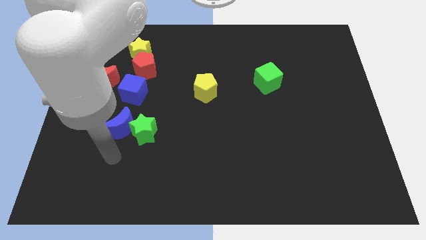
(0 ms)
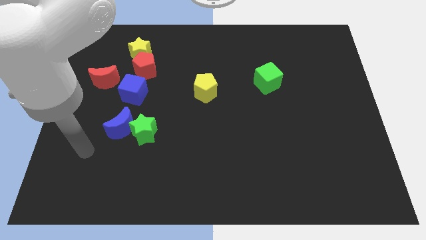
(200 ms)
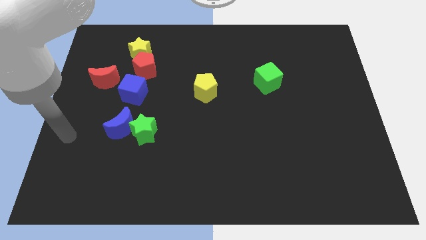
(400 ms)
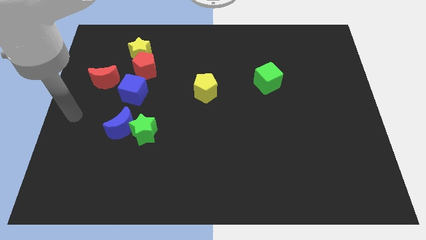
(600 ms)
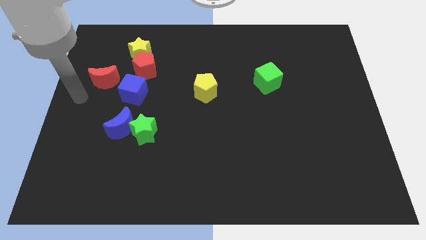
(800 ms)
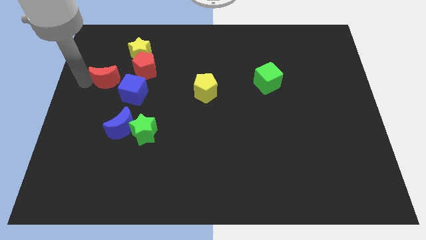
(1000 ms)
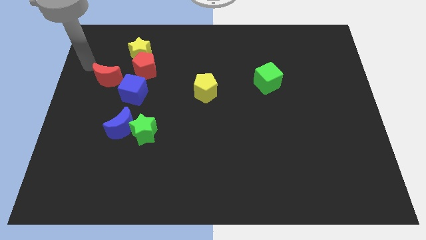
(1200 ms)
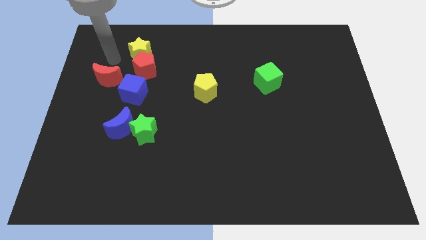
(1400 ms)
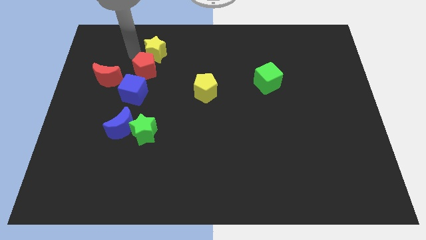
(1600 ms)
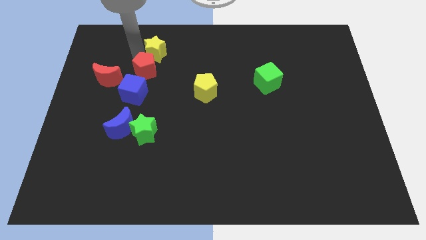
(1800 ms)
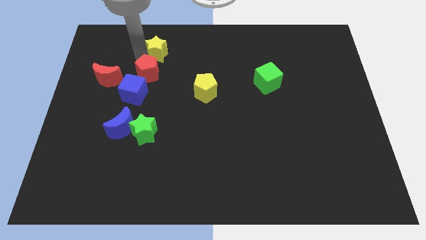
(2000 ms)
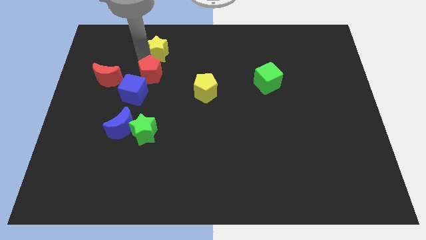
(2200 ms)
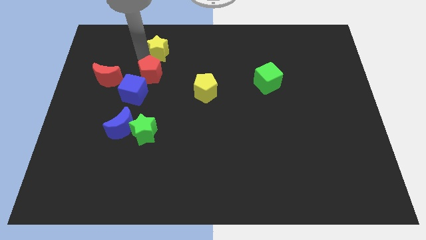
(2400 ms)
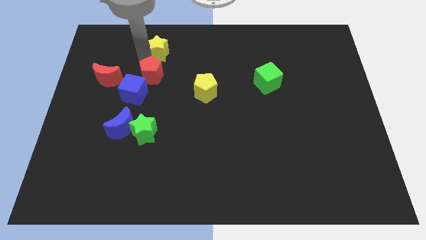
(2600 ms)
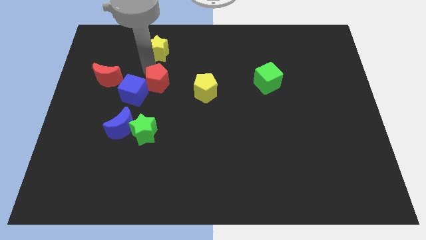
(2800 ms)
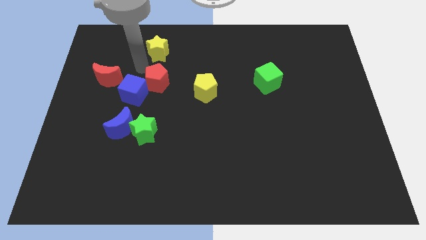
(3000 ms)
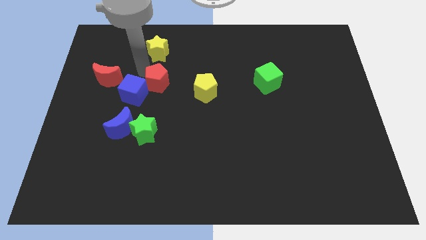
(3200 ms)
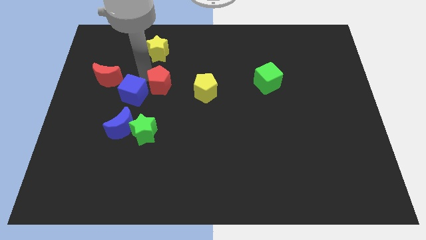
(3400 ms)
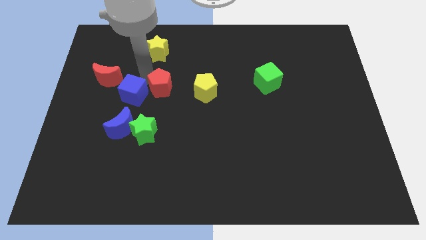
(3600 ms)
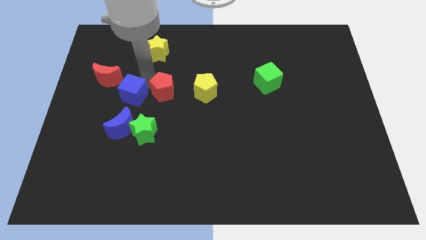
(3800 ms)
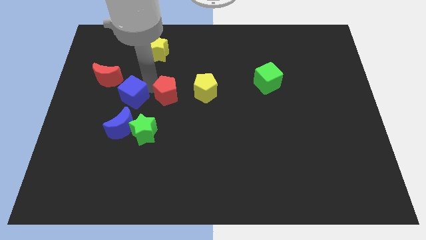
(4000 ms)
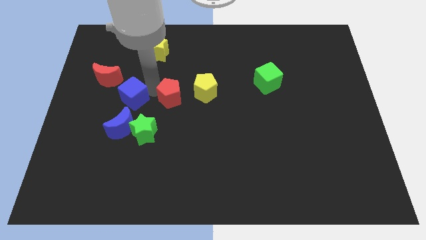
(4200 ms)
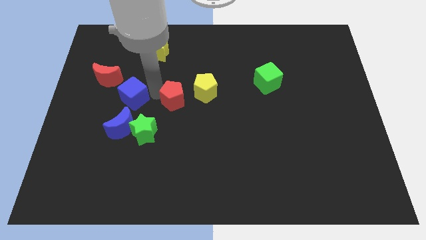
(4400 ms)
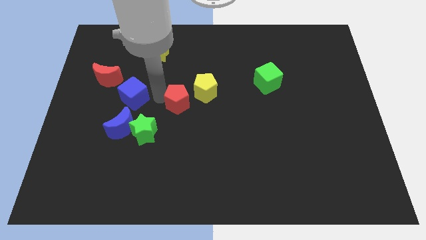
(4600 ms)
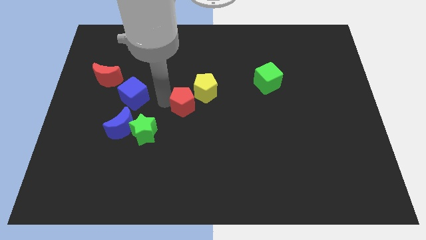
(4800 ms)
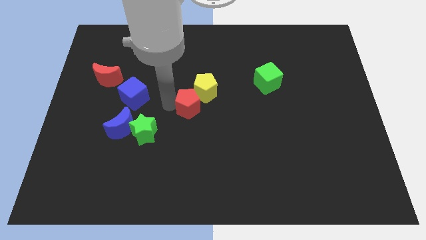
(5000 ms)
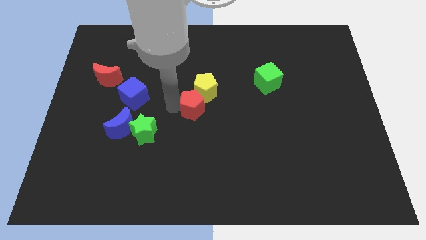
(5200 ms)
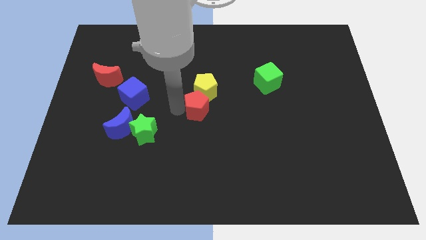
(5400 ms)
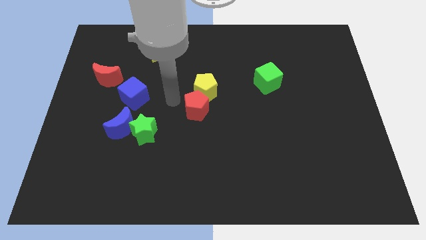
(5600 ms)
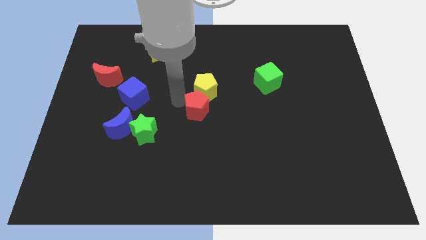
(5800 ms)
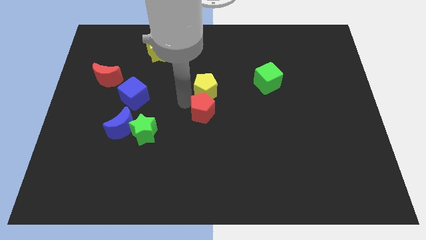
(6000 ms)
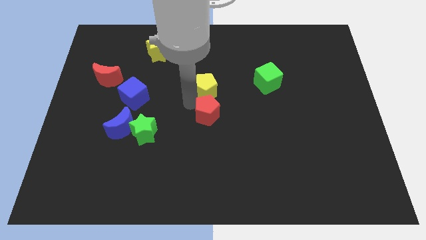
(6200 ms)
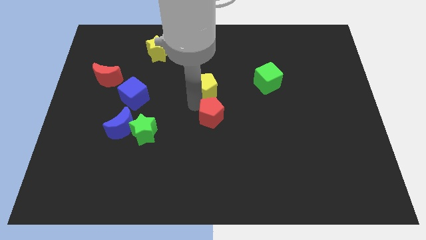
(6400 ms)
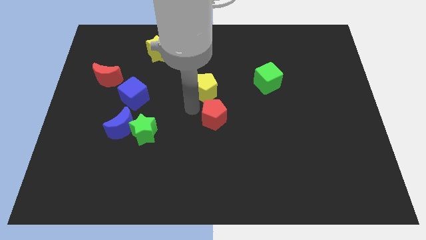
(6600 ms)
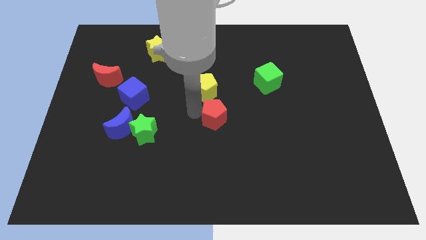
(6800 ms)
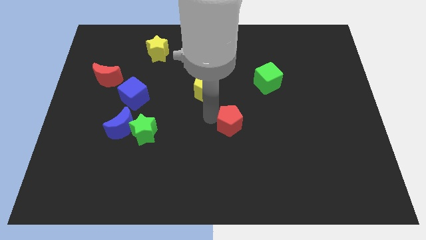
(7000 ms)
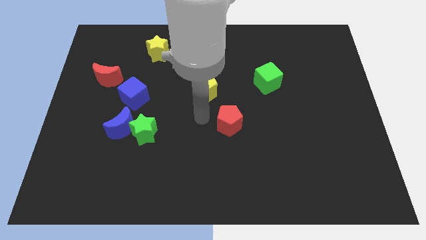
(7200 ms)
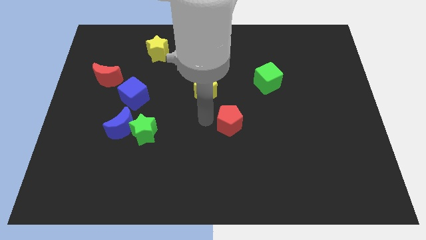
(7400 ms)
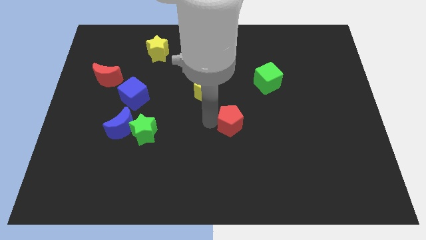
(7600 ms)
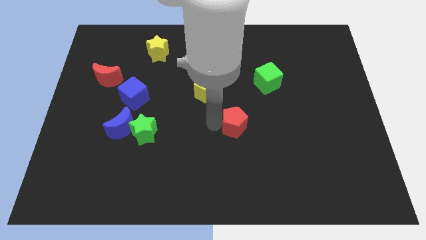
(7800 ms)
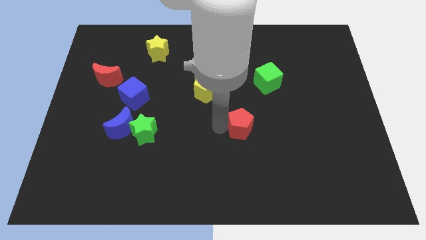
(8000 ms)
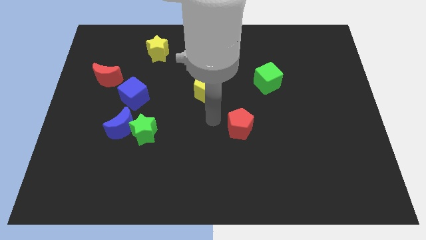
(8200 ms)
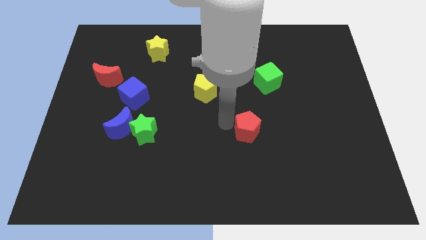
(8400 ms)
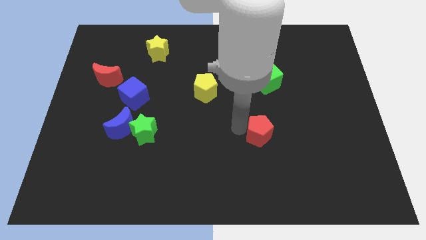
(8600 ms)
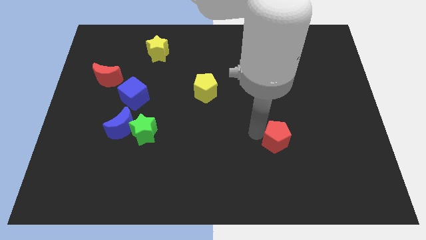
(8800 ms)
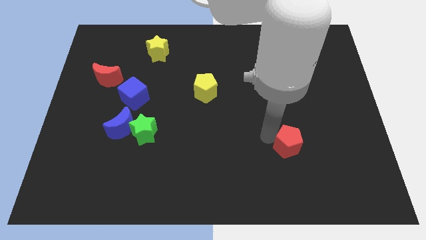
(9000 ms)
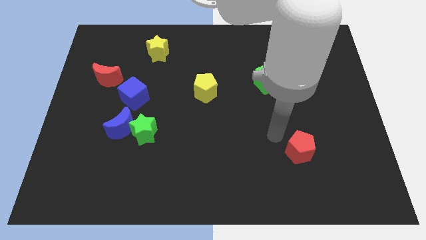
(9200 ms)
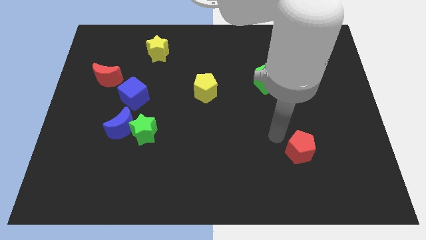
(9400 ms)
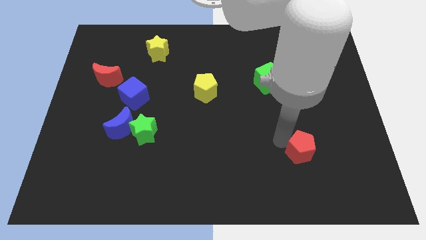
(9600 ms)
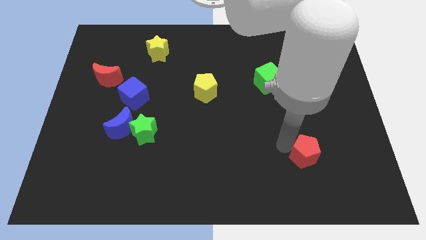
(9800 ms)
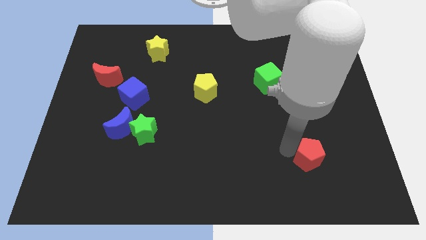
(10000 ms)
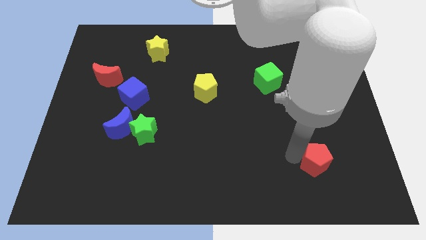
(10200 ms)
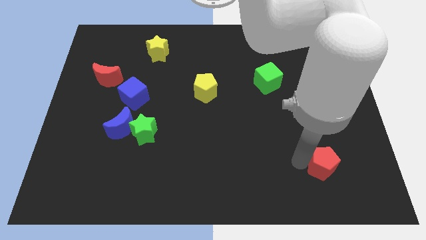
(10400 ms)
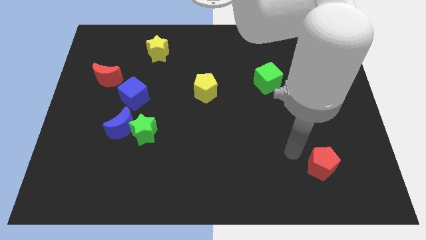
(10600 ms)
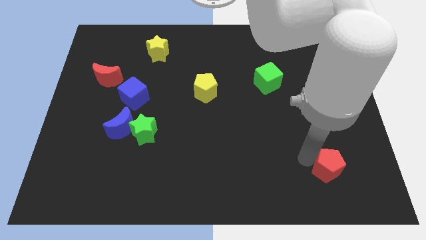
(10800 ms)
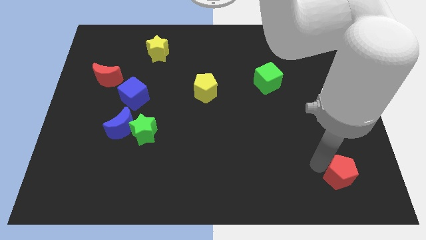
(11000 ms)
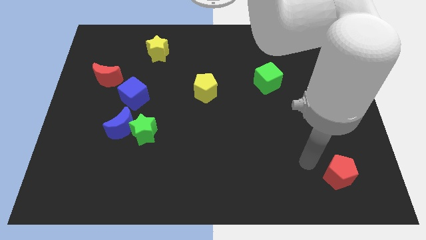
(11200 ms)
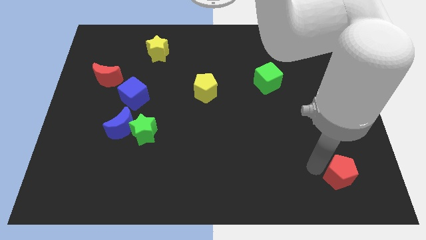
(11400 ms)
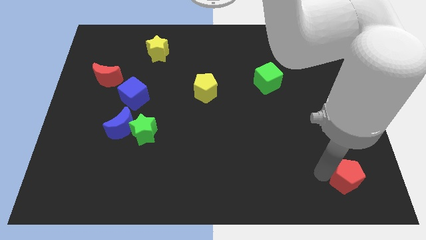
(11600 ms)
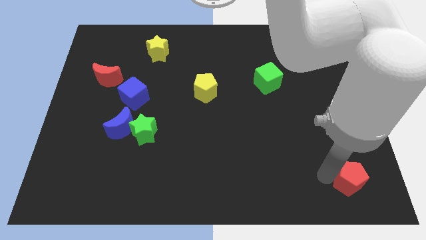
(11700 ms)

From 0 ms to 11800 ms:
move the red pentagon to the bottom right corner
